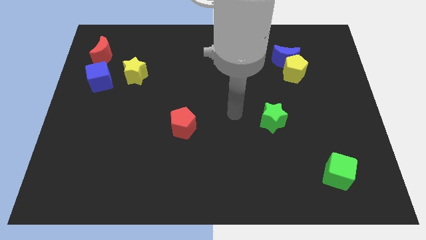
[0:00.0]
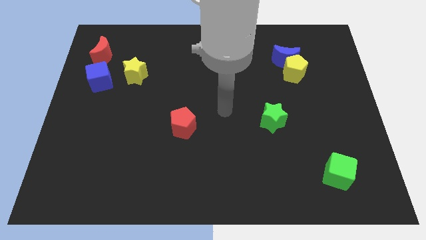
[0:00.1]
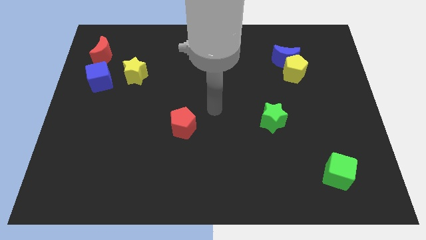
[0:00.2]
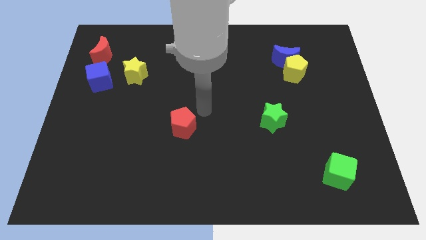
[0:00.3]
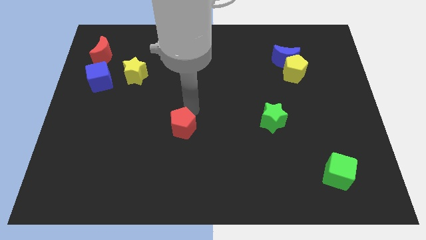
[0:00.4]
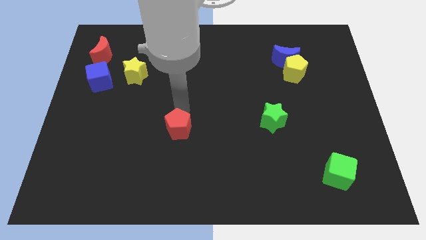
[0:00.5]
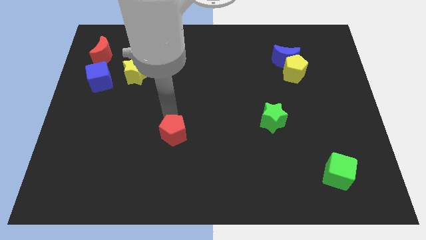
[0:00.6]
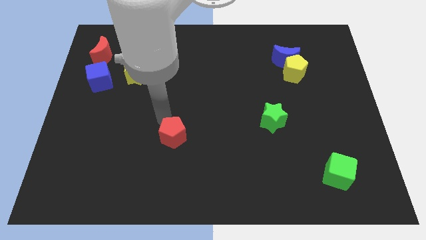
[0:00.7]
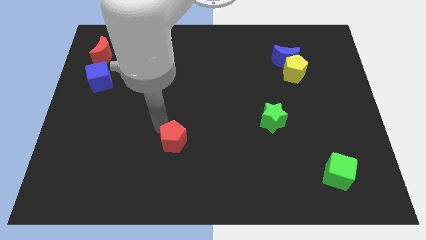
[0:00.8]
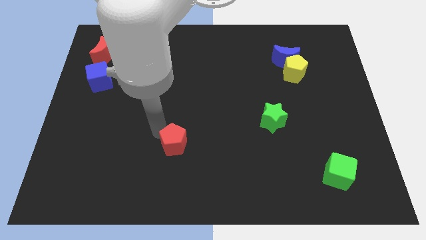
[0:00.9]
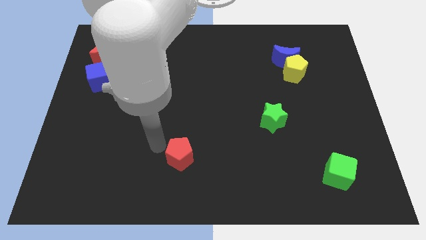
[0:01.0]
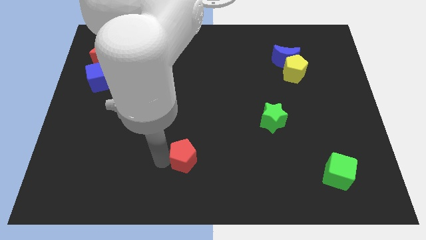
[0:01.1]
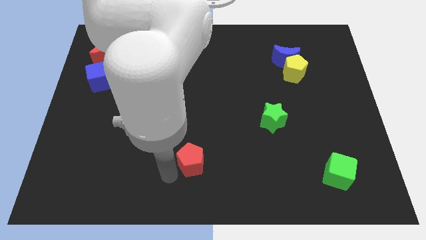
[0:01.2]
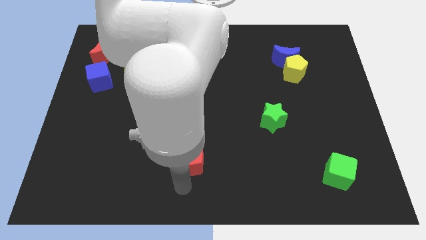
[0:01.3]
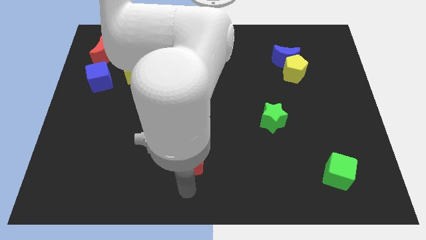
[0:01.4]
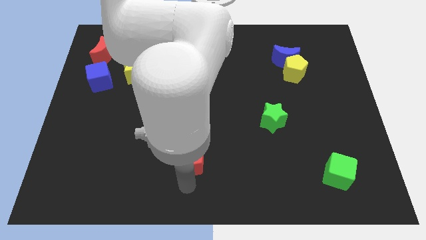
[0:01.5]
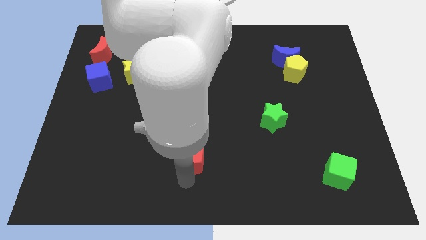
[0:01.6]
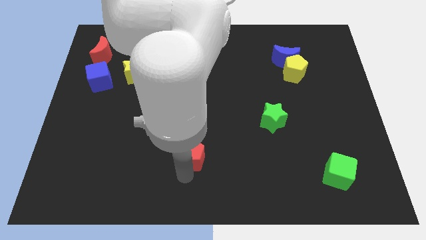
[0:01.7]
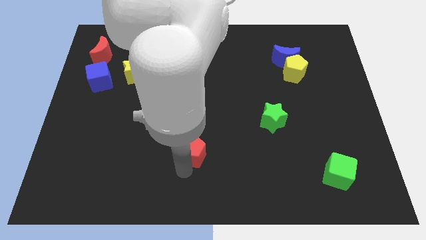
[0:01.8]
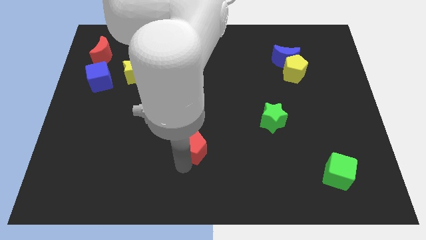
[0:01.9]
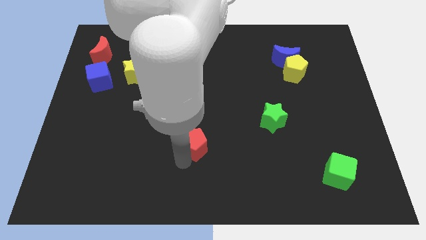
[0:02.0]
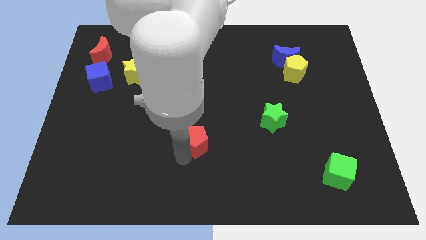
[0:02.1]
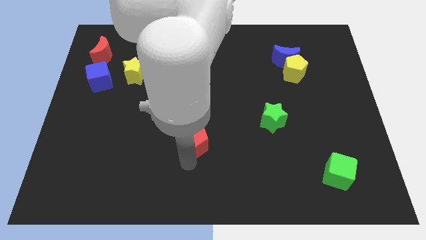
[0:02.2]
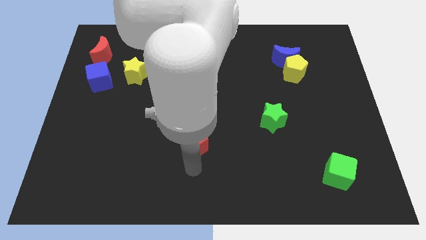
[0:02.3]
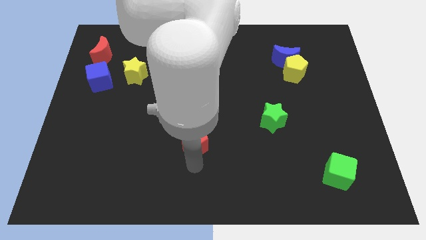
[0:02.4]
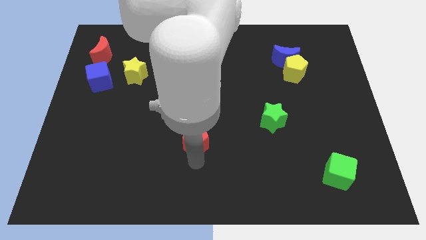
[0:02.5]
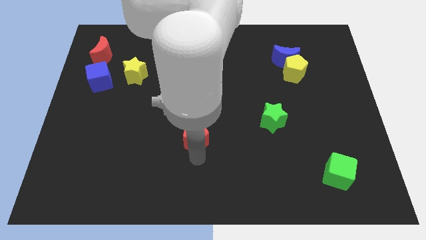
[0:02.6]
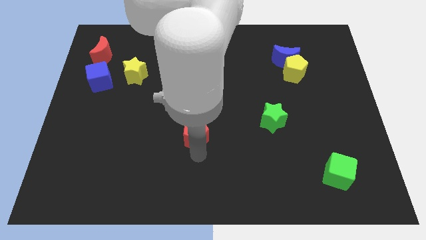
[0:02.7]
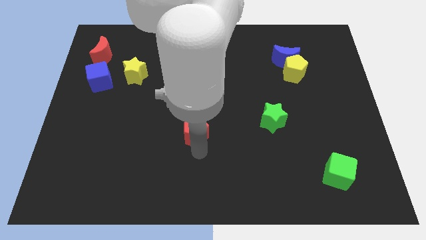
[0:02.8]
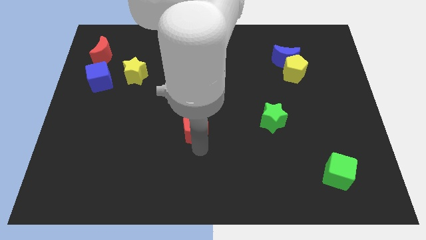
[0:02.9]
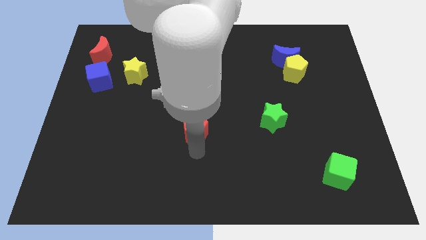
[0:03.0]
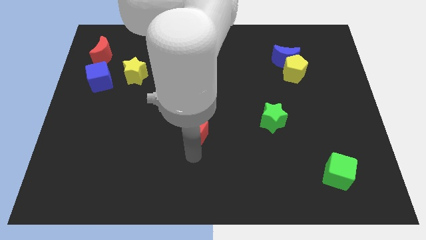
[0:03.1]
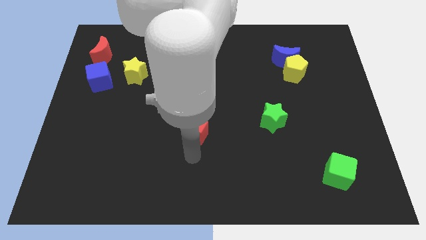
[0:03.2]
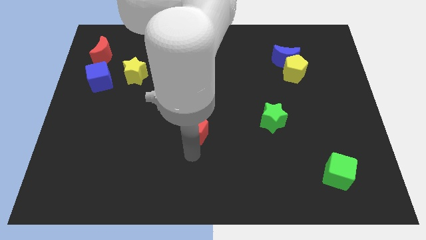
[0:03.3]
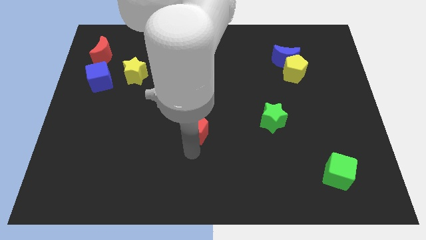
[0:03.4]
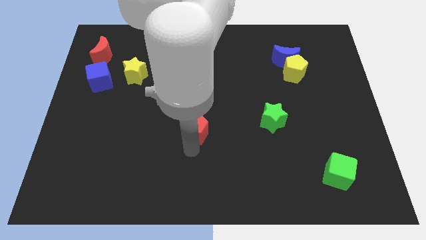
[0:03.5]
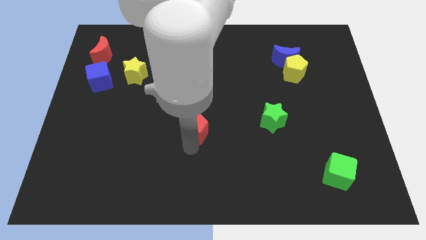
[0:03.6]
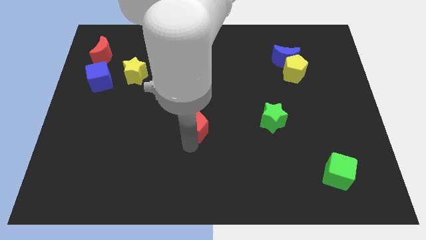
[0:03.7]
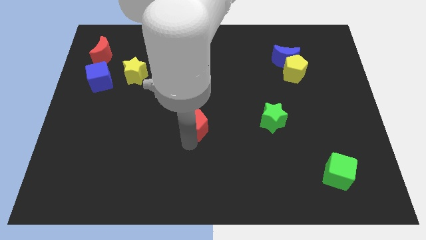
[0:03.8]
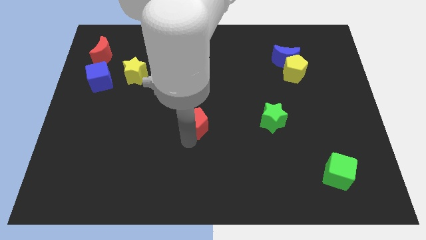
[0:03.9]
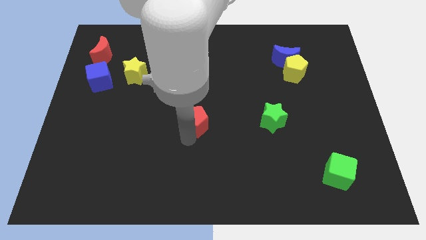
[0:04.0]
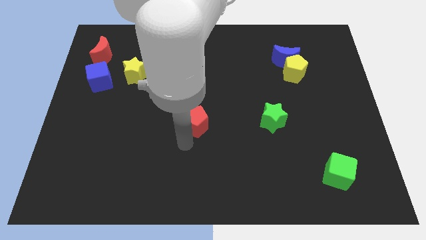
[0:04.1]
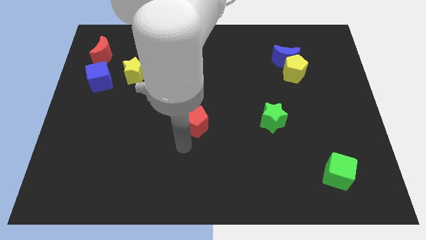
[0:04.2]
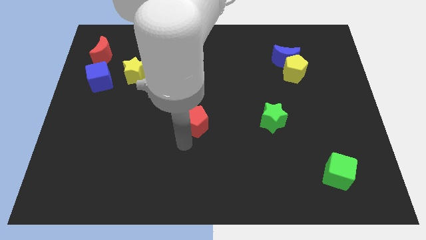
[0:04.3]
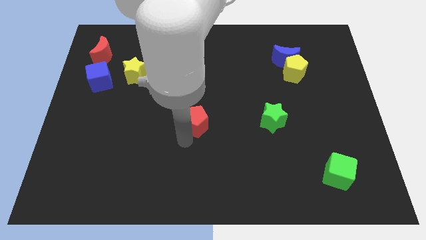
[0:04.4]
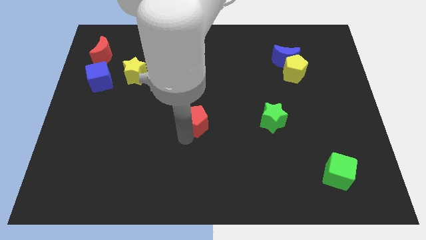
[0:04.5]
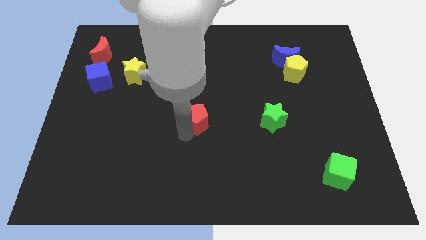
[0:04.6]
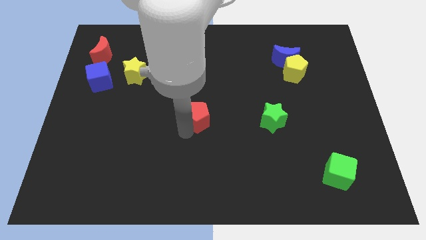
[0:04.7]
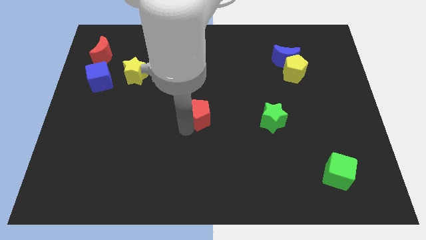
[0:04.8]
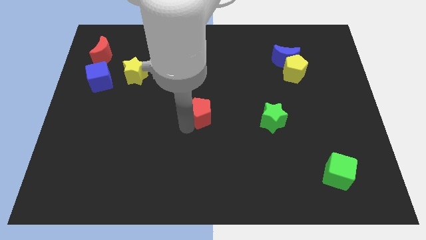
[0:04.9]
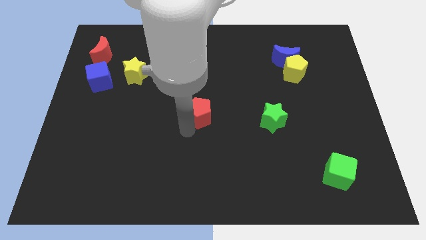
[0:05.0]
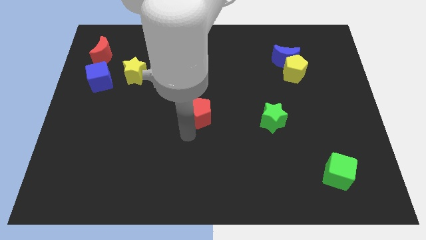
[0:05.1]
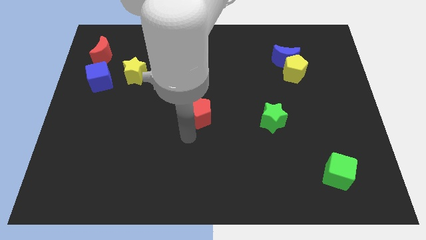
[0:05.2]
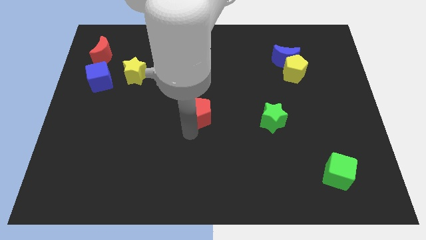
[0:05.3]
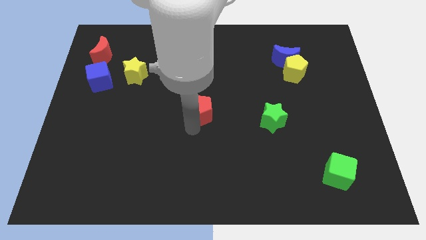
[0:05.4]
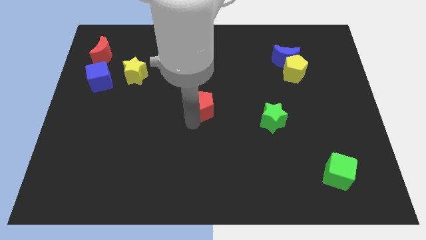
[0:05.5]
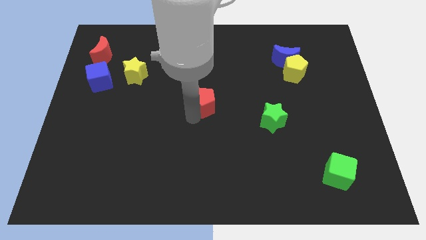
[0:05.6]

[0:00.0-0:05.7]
slide the red pentagon slightly upwards and to the right diagonally

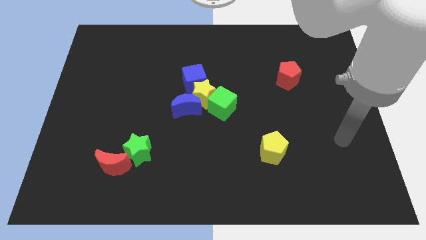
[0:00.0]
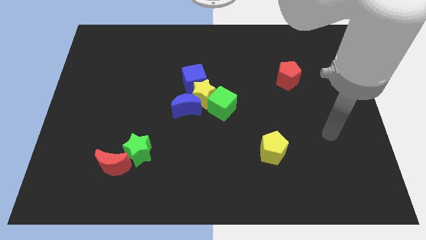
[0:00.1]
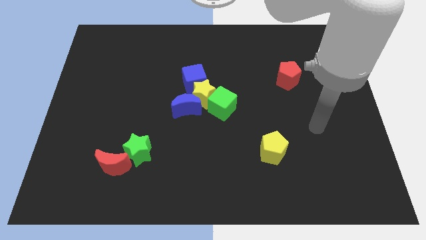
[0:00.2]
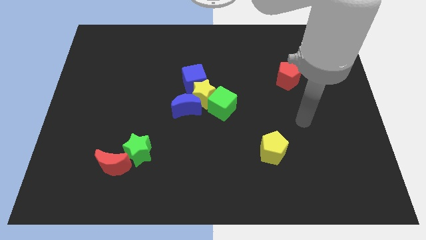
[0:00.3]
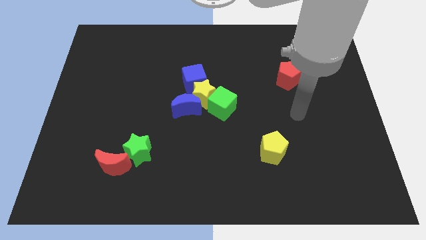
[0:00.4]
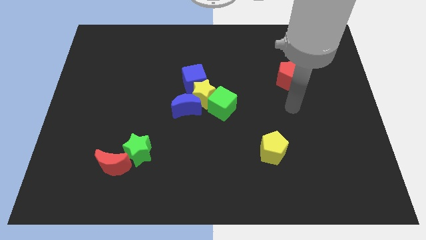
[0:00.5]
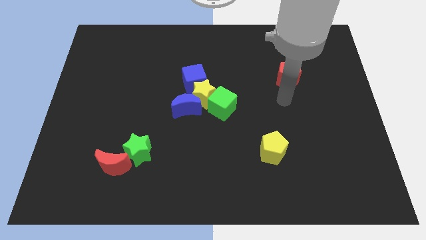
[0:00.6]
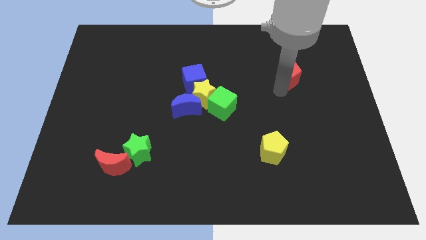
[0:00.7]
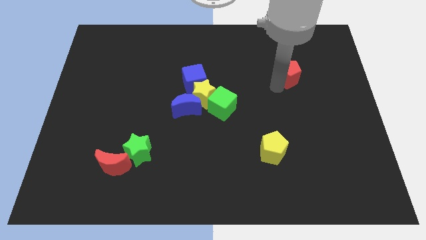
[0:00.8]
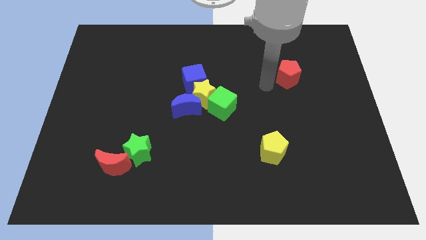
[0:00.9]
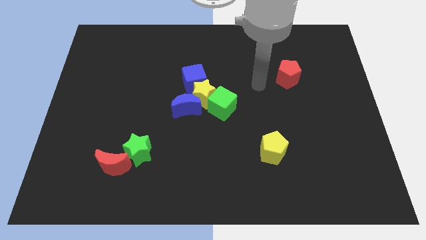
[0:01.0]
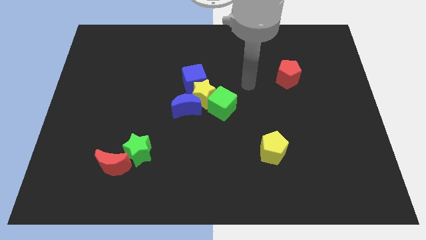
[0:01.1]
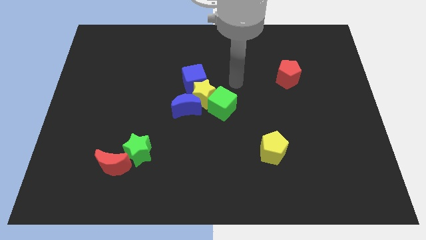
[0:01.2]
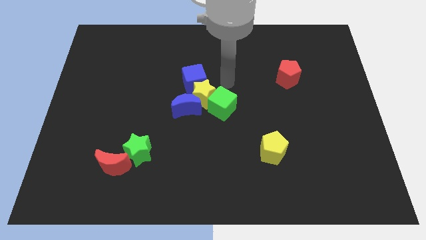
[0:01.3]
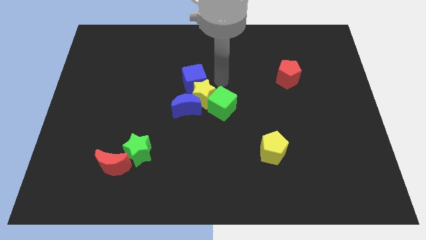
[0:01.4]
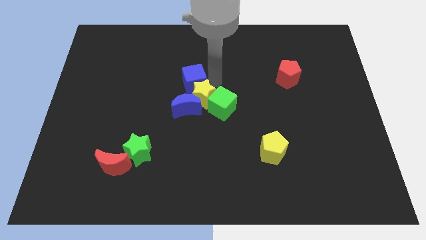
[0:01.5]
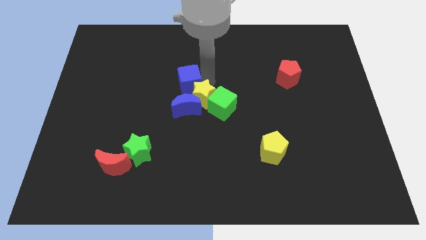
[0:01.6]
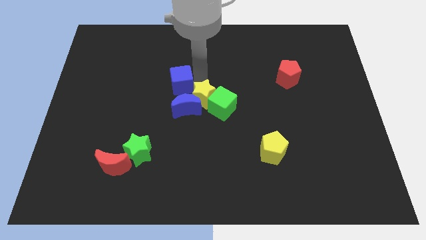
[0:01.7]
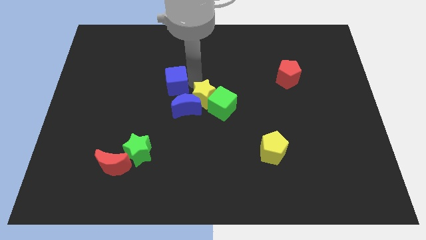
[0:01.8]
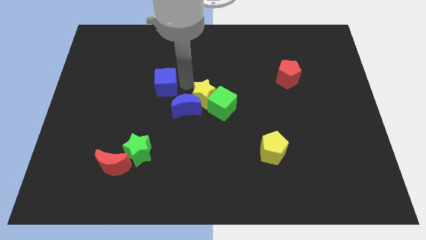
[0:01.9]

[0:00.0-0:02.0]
move the blue cube left somewhat
